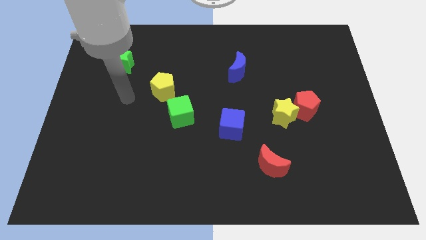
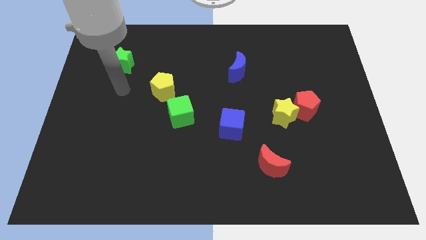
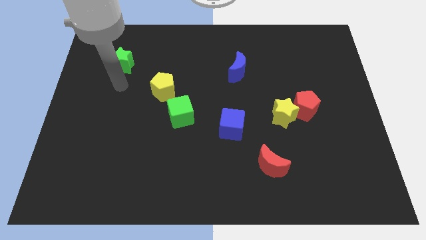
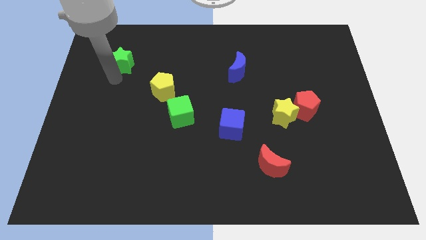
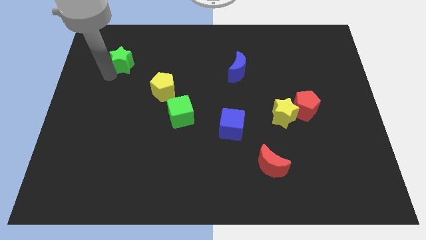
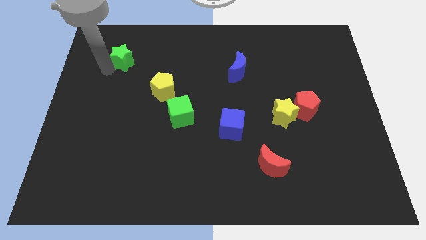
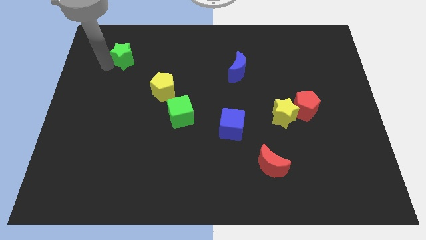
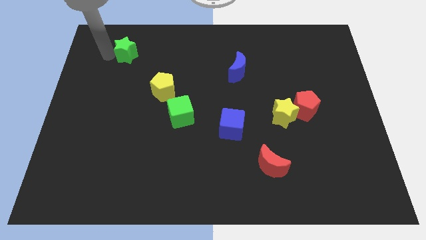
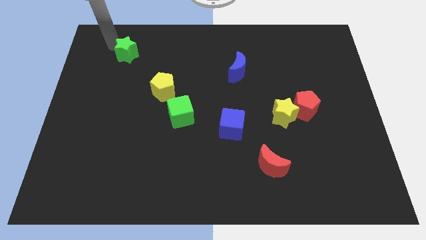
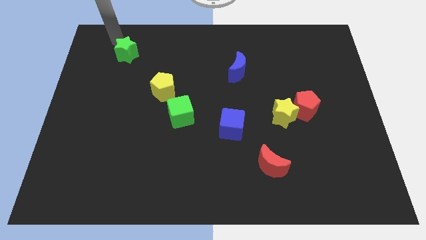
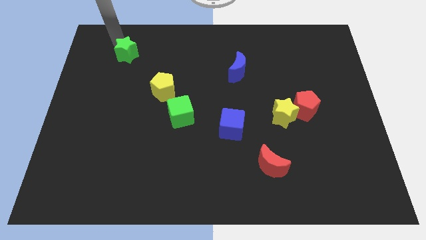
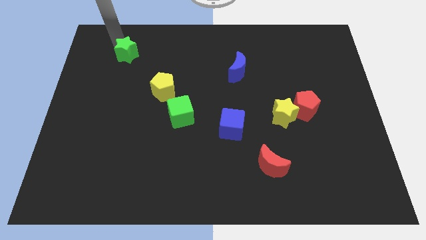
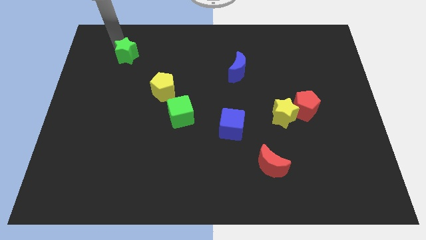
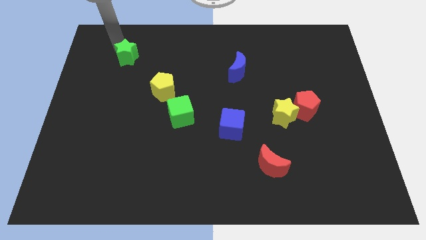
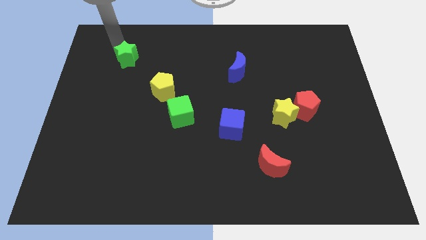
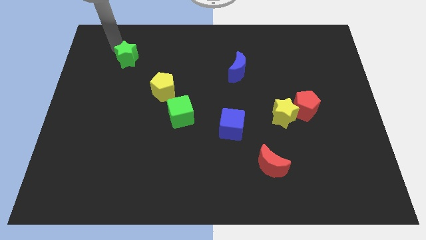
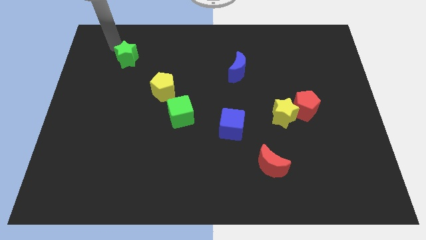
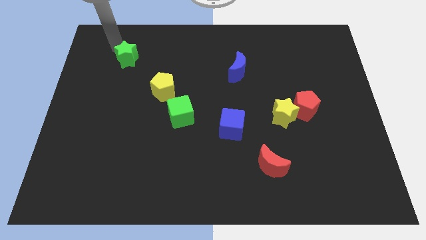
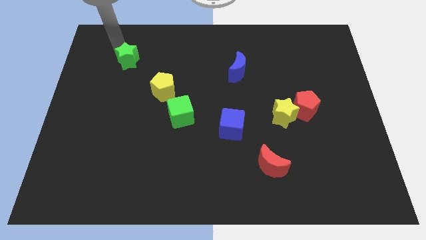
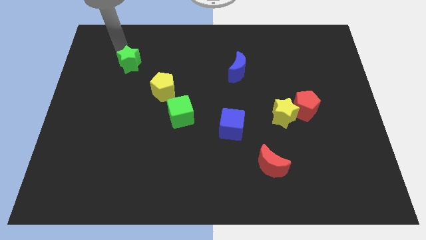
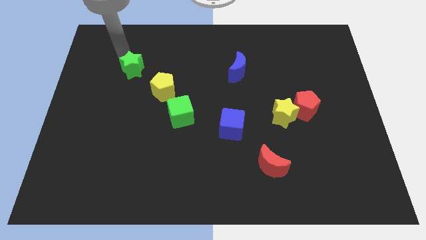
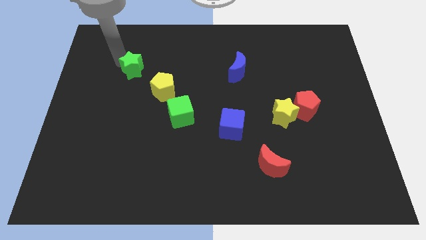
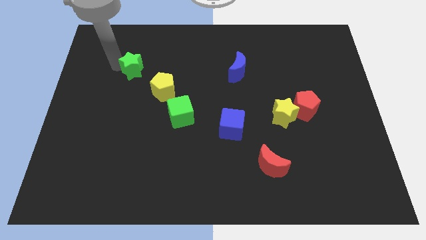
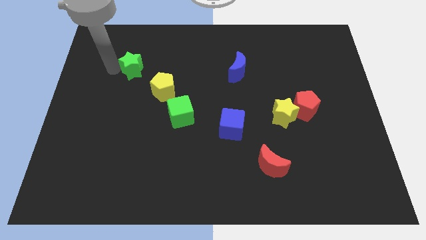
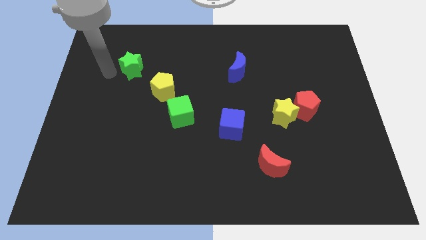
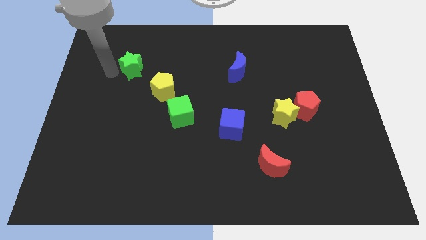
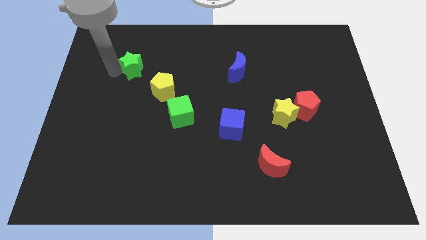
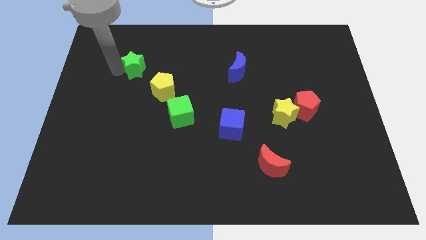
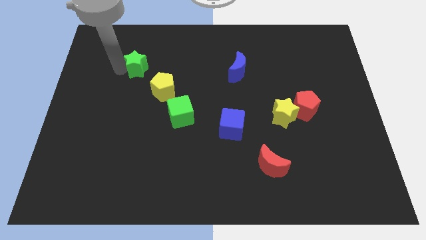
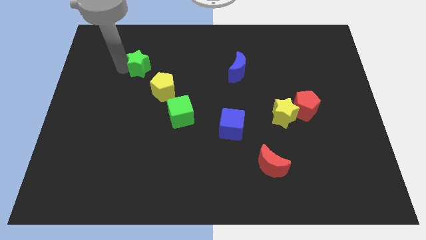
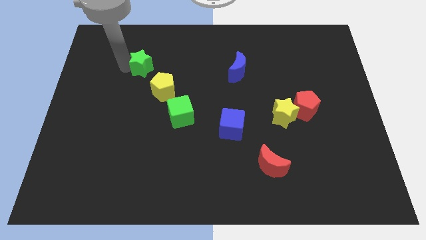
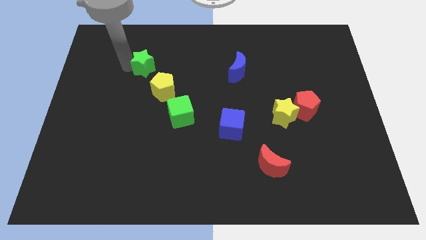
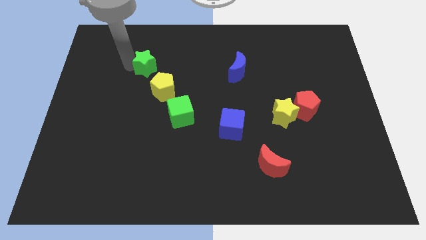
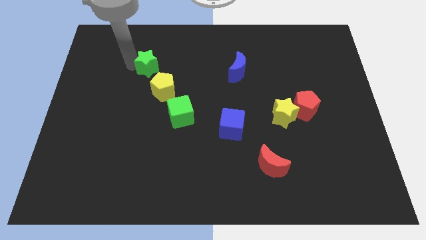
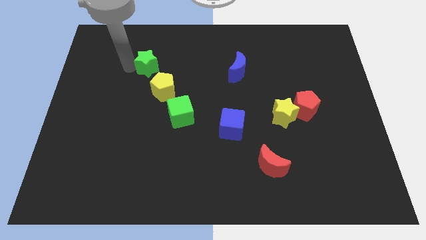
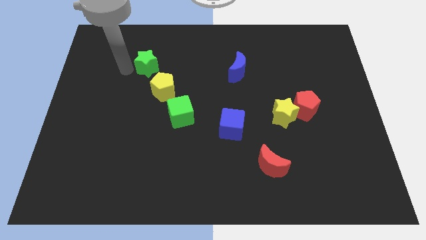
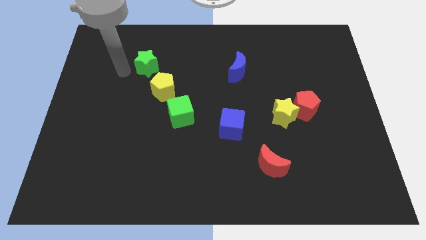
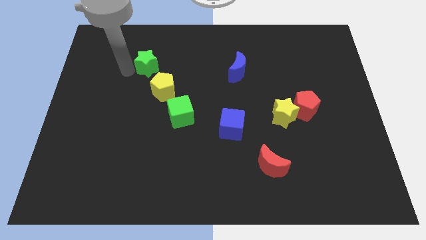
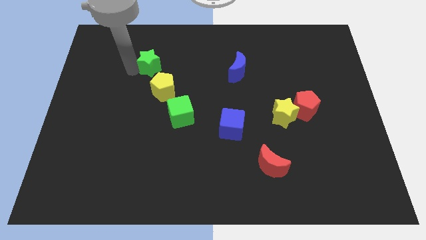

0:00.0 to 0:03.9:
slightly slide the green star right

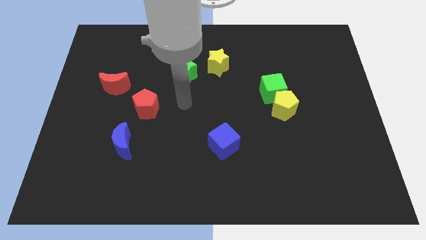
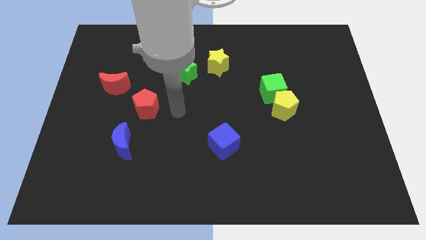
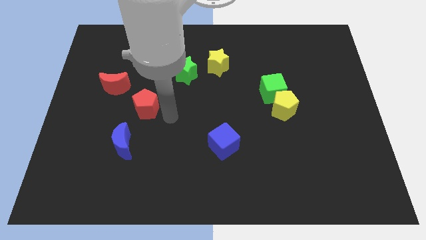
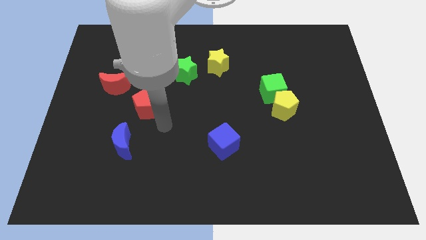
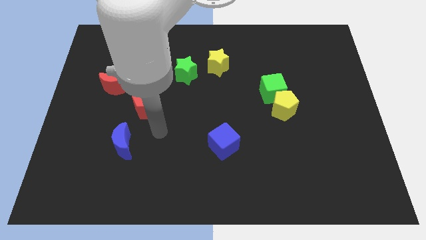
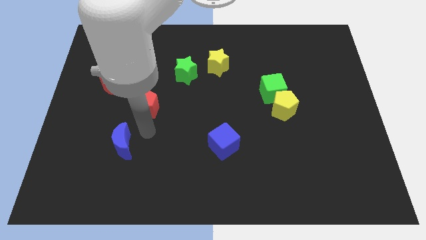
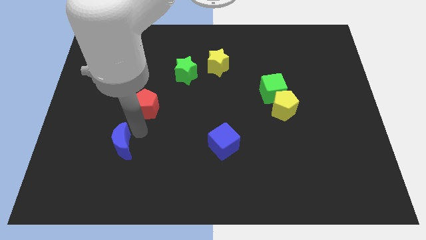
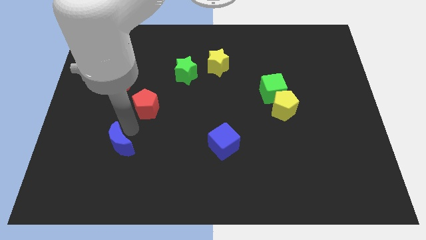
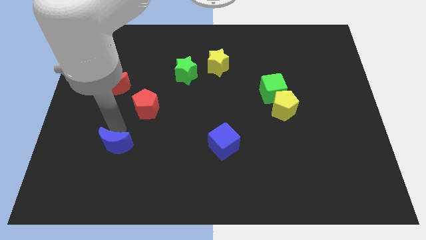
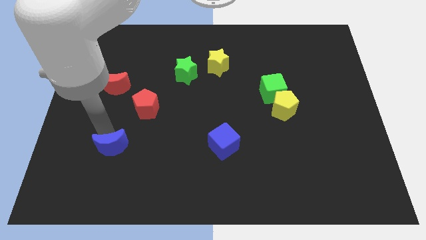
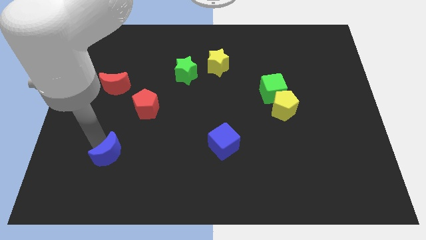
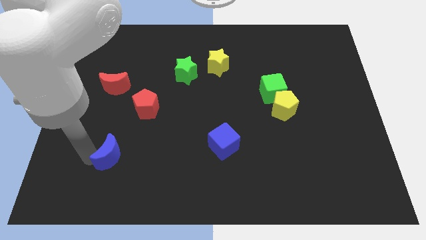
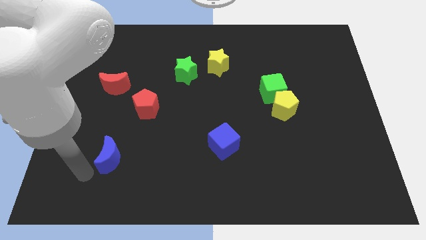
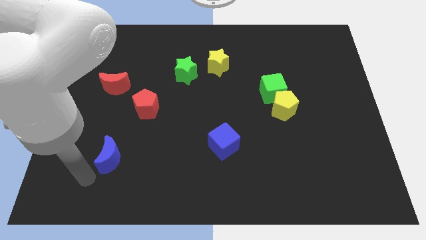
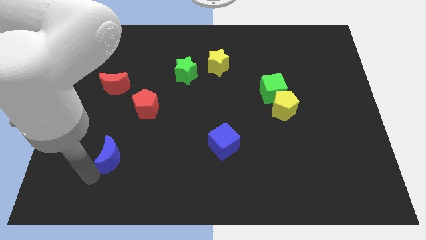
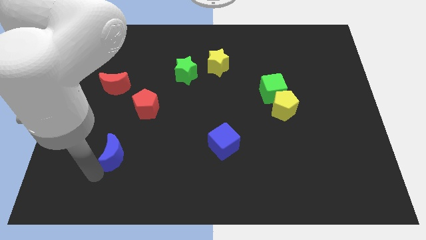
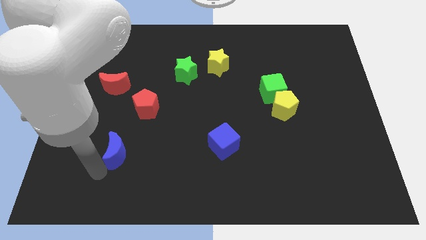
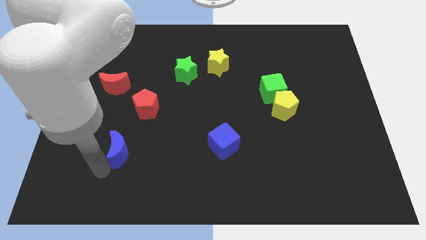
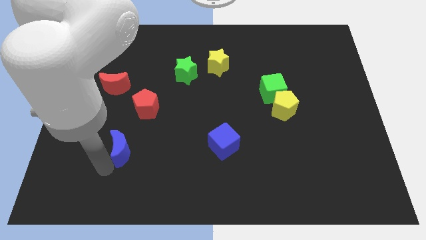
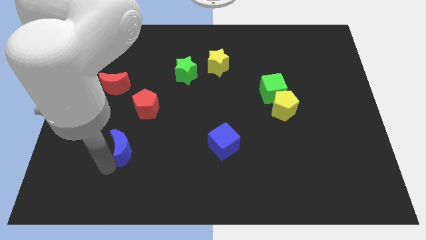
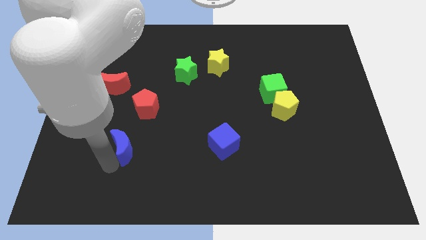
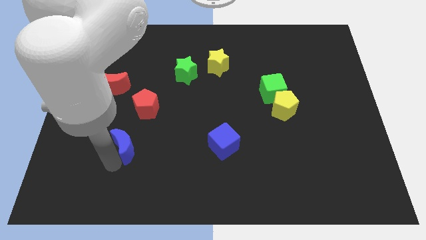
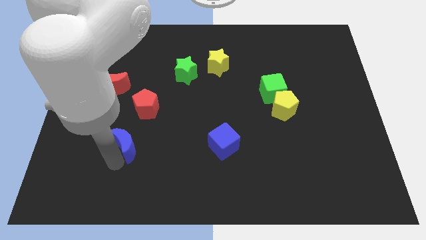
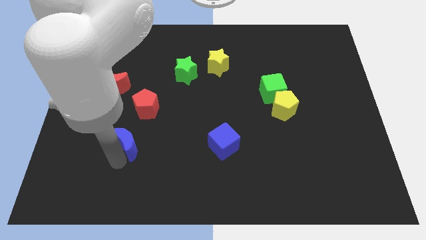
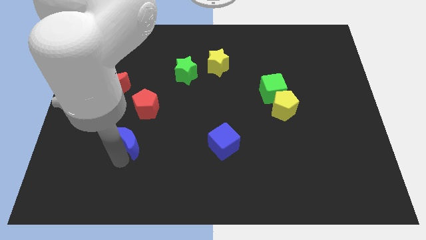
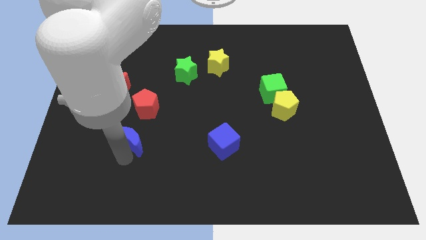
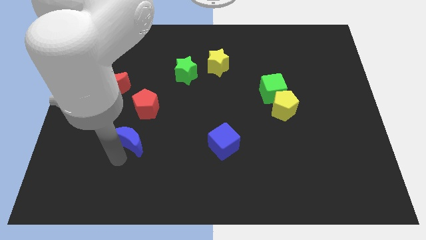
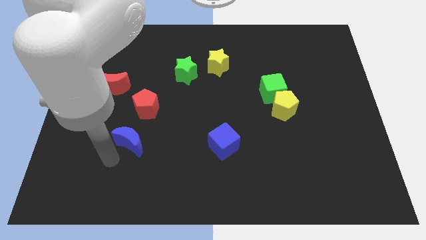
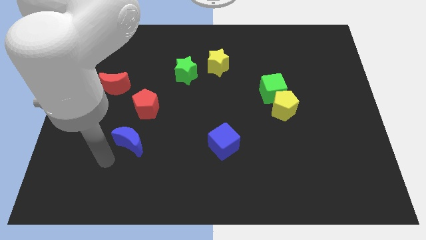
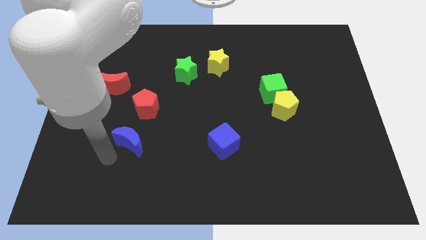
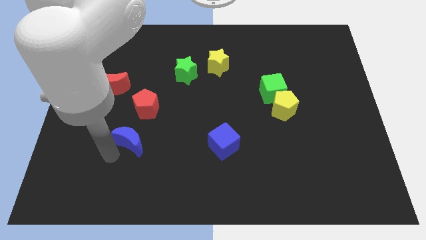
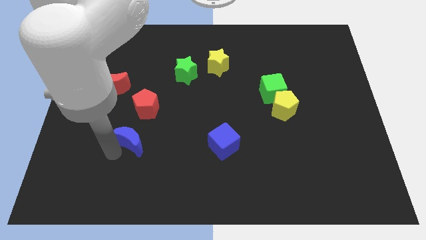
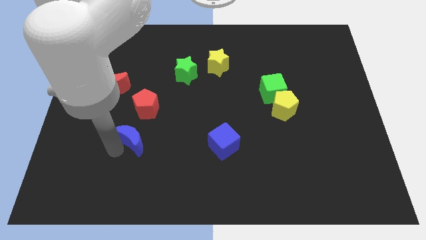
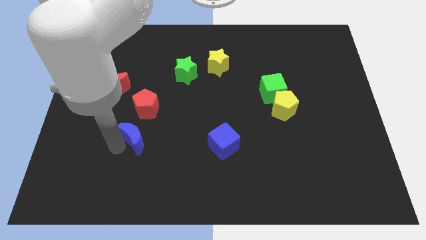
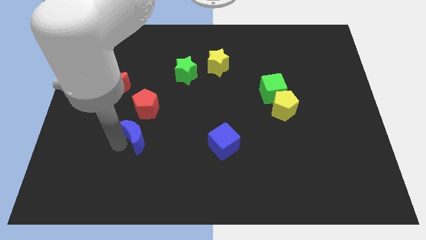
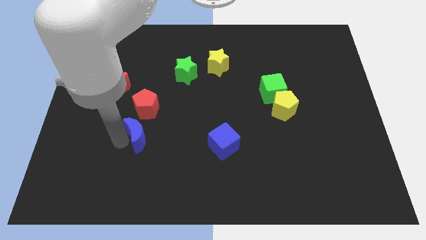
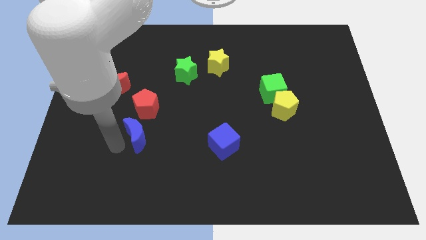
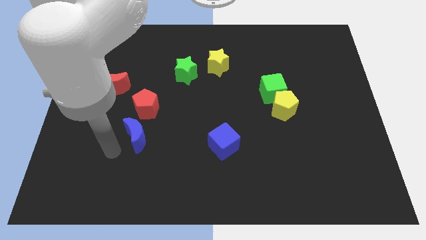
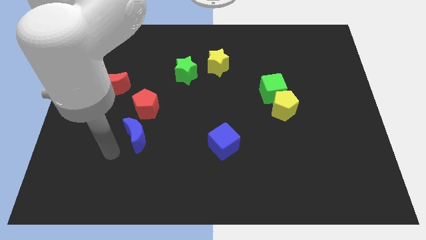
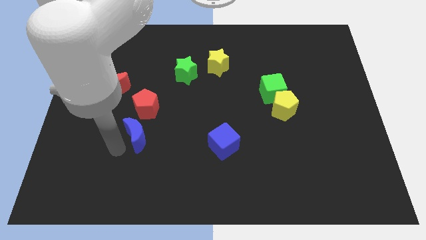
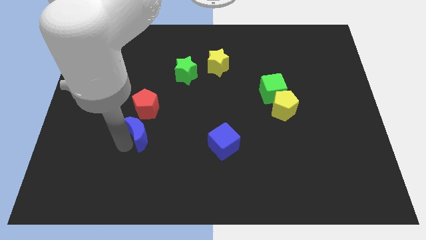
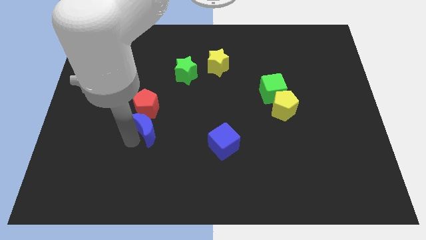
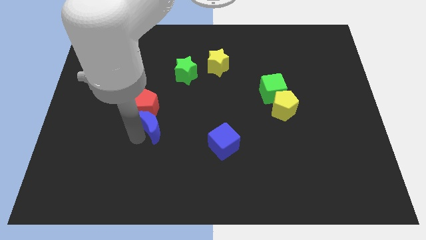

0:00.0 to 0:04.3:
slide the blue moon a little diagonally upwards and to the right
